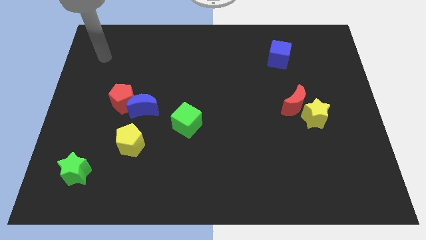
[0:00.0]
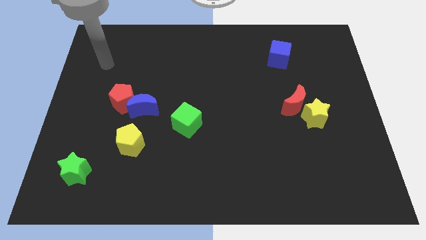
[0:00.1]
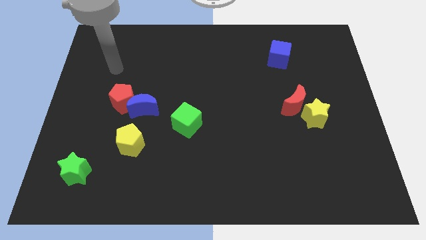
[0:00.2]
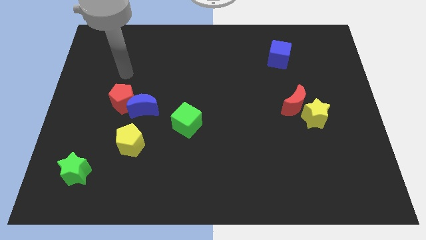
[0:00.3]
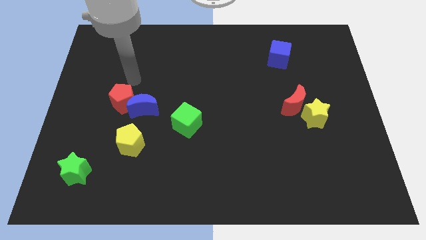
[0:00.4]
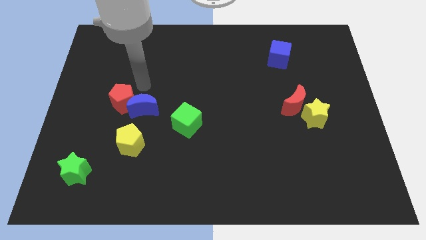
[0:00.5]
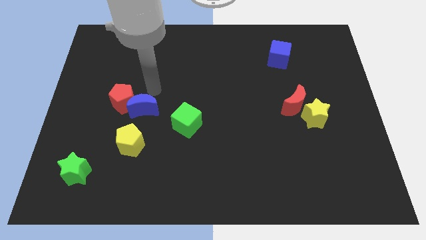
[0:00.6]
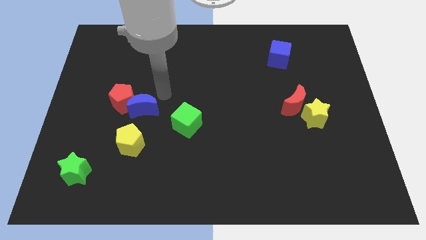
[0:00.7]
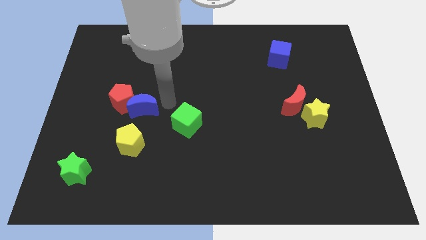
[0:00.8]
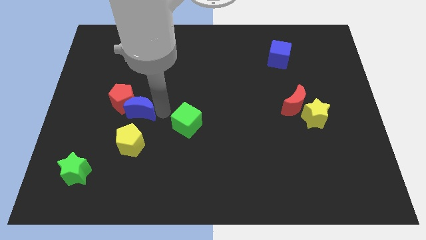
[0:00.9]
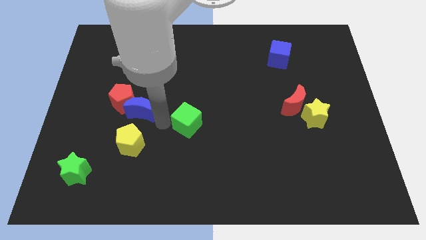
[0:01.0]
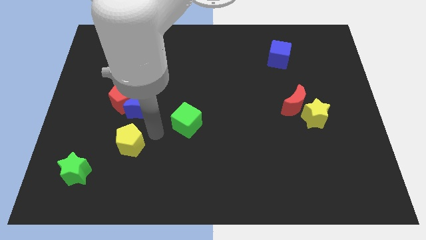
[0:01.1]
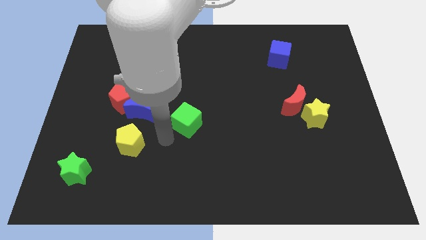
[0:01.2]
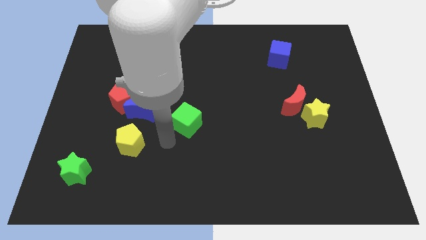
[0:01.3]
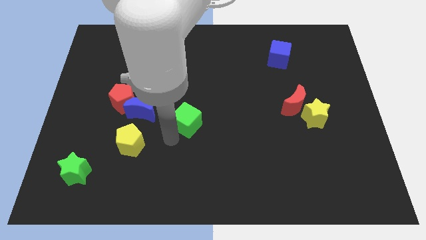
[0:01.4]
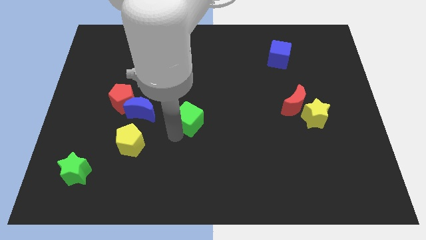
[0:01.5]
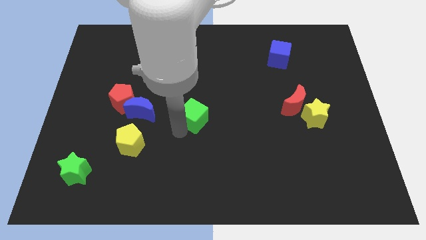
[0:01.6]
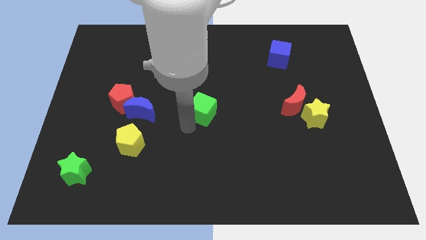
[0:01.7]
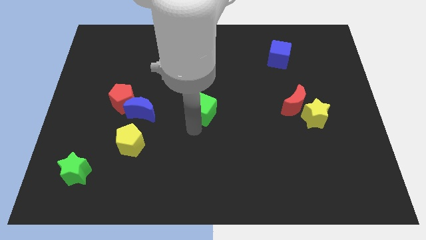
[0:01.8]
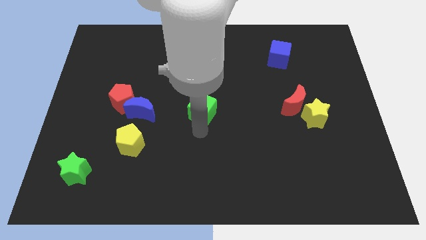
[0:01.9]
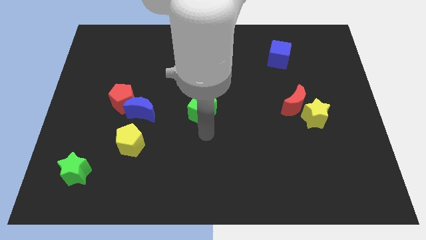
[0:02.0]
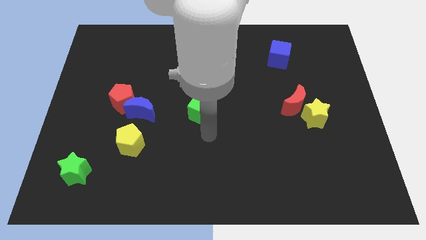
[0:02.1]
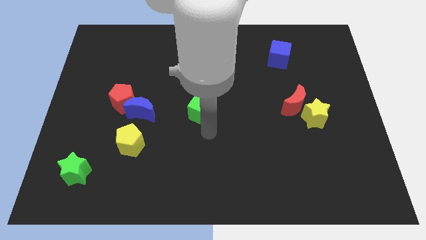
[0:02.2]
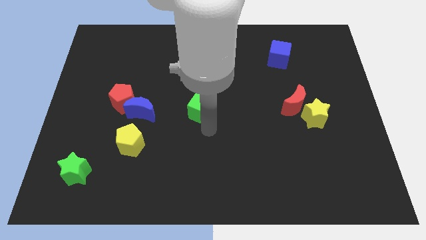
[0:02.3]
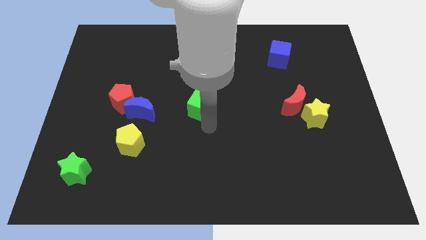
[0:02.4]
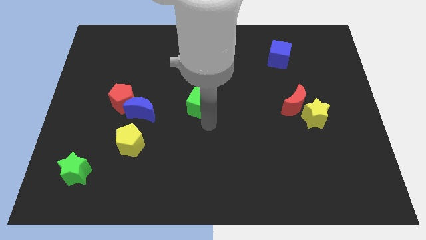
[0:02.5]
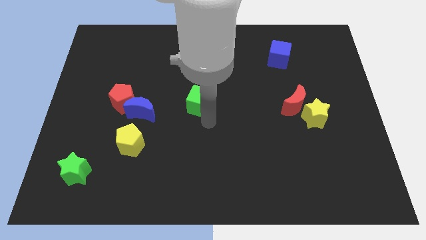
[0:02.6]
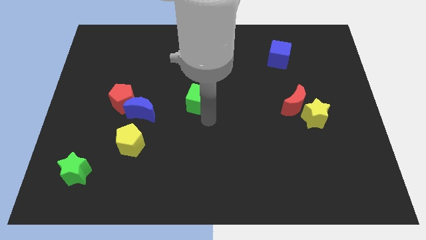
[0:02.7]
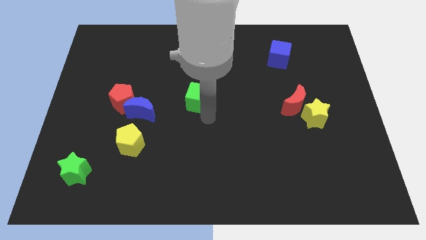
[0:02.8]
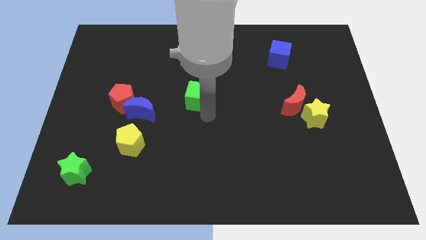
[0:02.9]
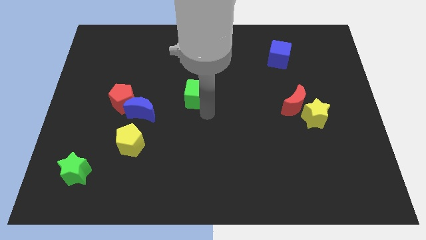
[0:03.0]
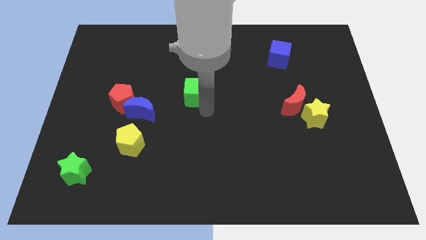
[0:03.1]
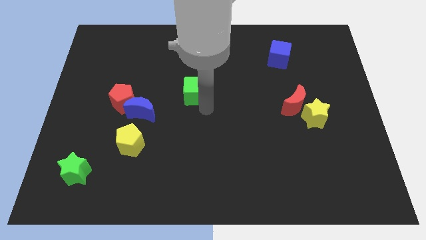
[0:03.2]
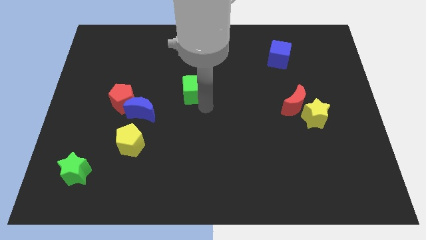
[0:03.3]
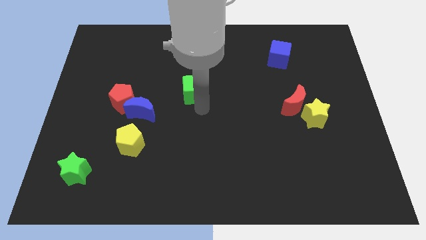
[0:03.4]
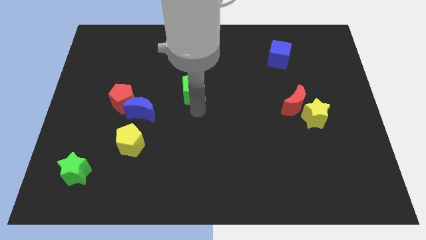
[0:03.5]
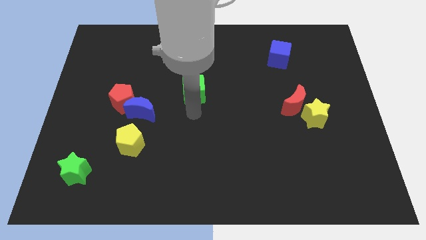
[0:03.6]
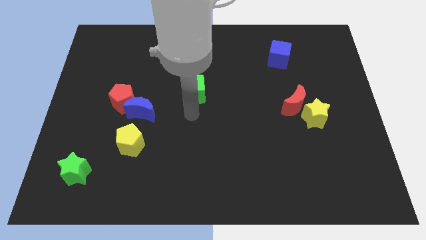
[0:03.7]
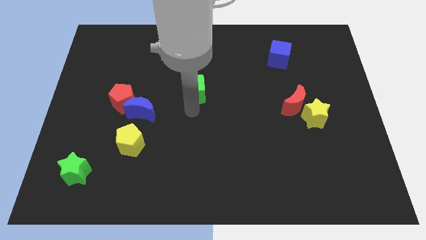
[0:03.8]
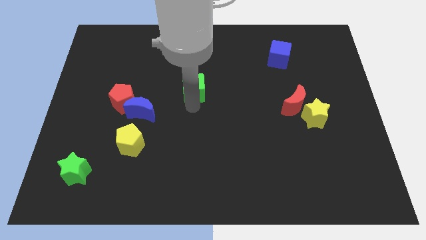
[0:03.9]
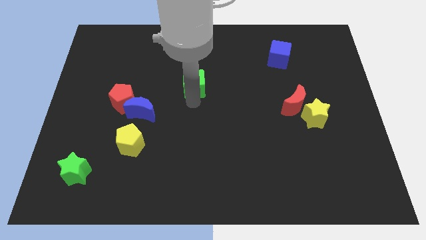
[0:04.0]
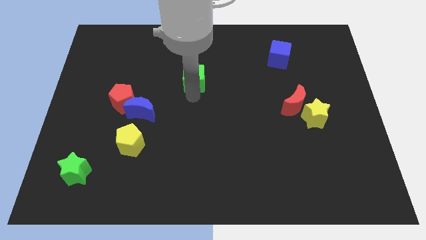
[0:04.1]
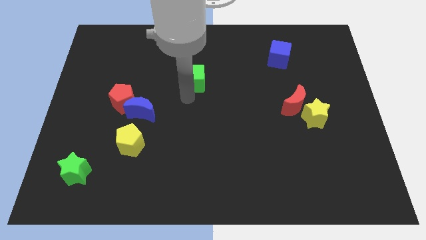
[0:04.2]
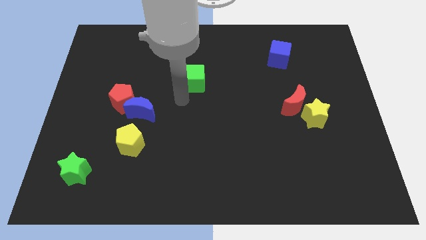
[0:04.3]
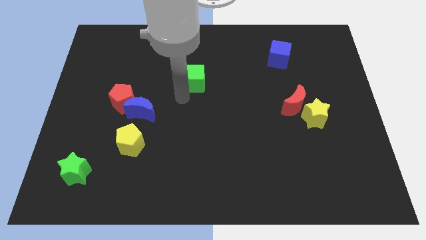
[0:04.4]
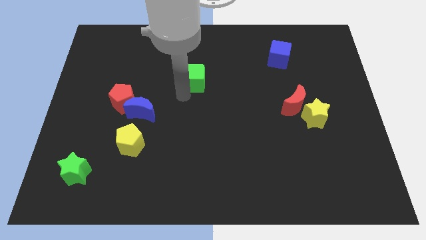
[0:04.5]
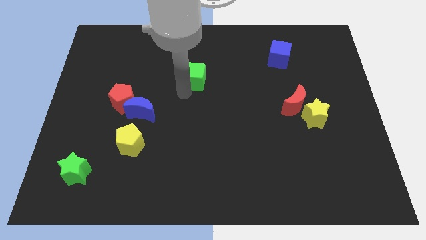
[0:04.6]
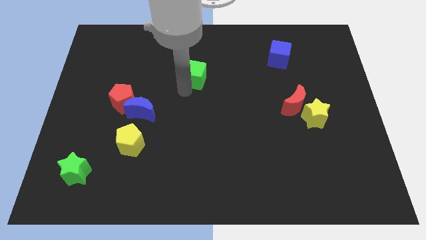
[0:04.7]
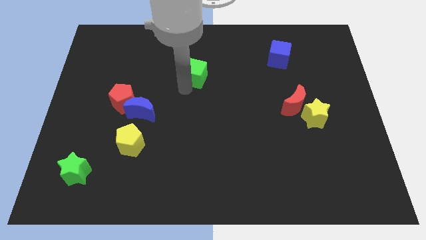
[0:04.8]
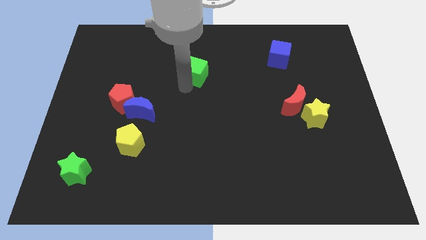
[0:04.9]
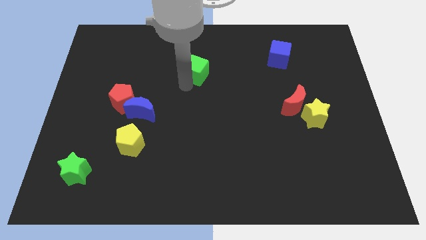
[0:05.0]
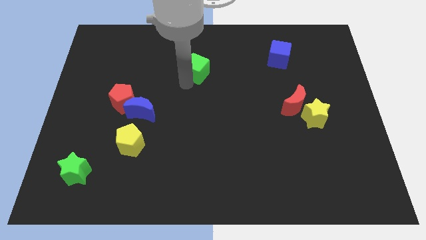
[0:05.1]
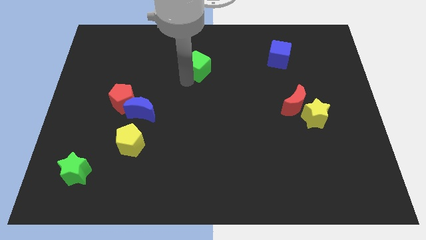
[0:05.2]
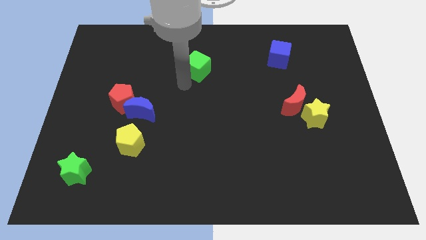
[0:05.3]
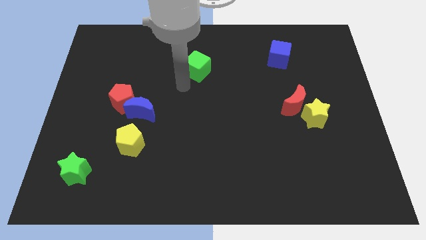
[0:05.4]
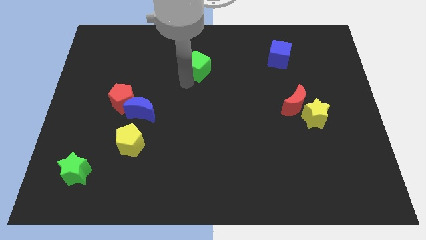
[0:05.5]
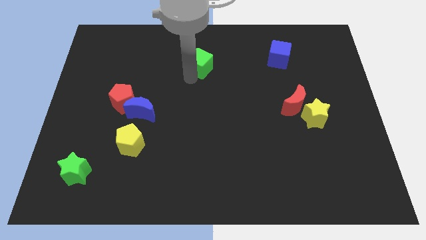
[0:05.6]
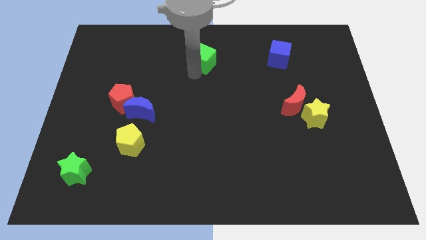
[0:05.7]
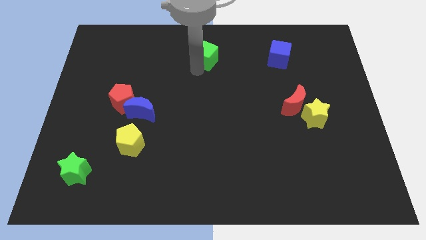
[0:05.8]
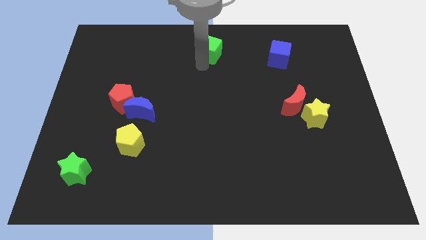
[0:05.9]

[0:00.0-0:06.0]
move the green cube to the top side
